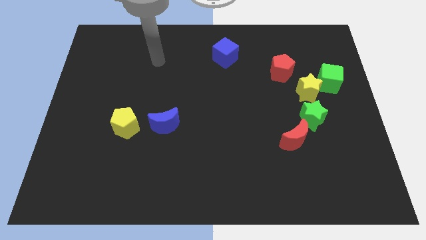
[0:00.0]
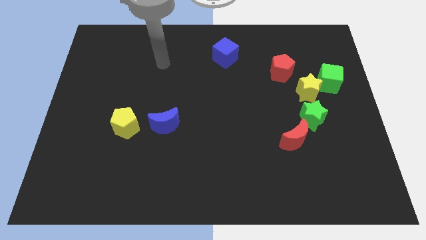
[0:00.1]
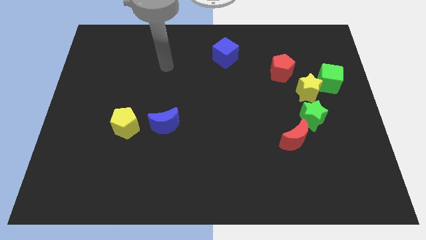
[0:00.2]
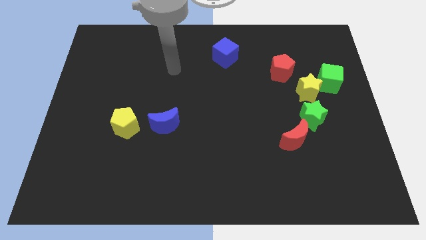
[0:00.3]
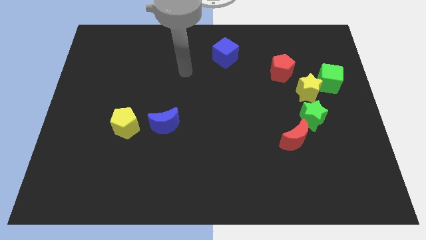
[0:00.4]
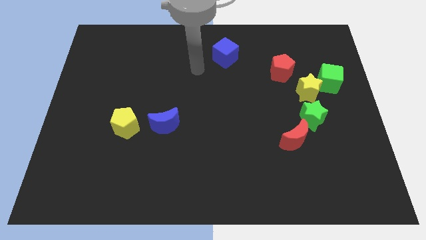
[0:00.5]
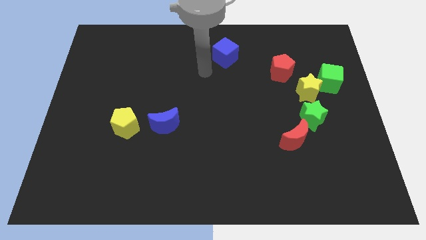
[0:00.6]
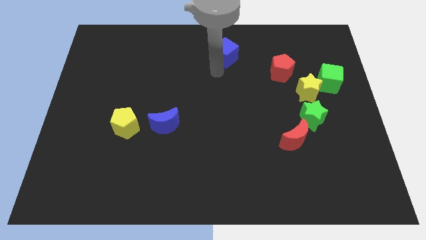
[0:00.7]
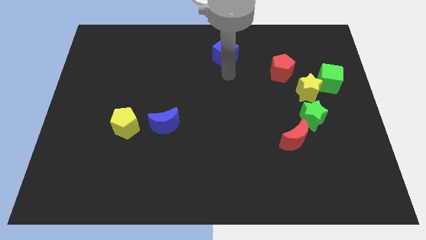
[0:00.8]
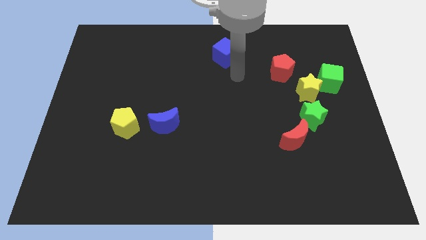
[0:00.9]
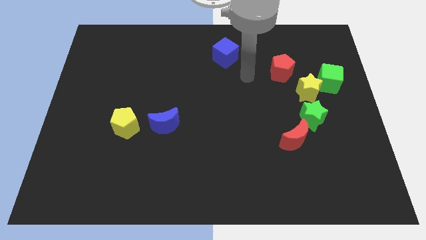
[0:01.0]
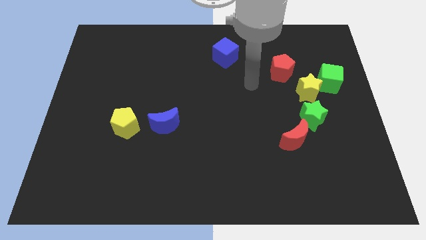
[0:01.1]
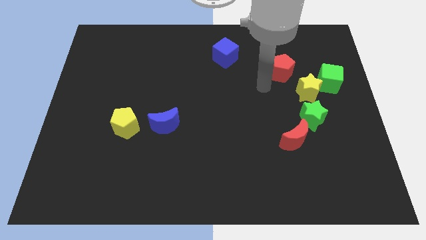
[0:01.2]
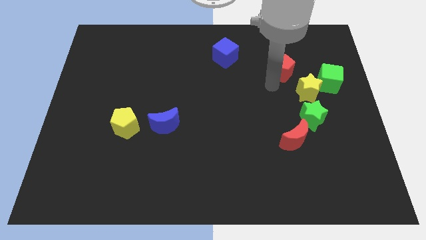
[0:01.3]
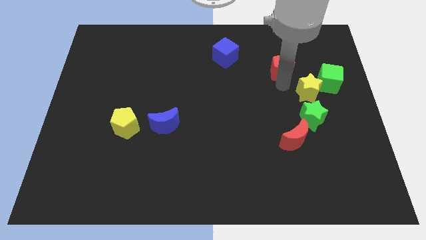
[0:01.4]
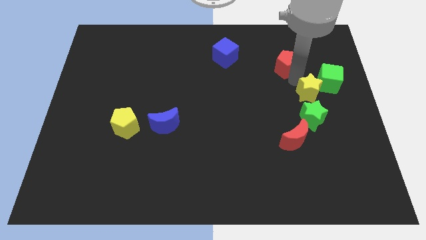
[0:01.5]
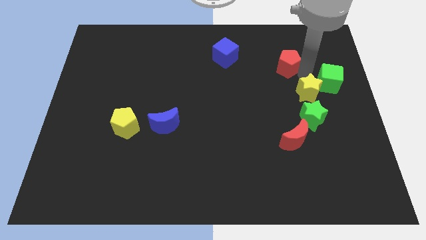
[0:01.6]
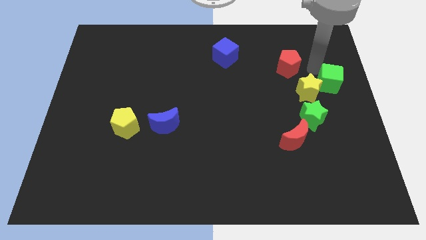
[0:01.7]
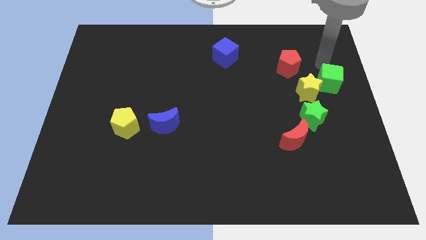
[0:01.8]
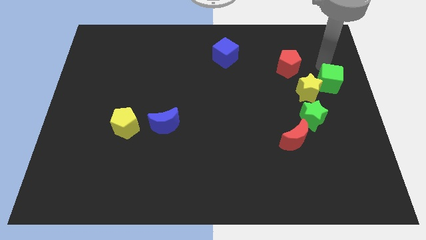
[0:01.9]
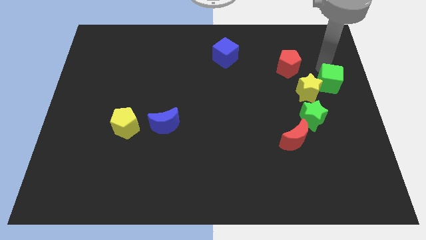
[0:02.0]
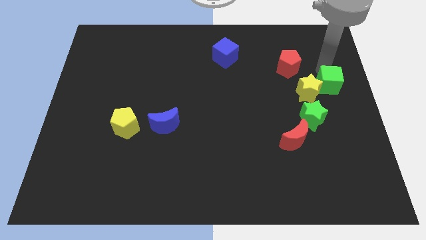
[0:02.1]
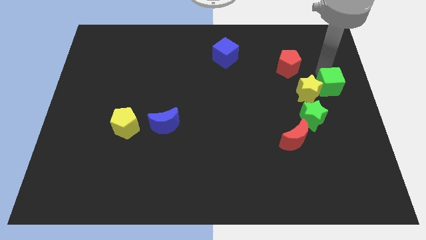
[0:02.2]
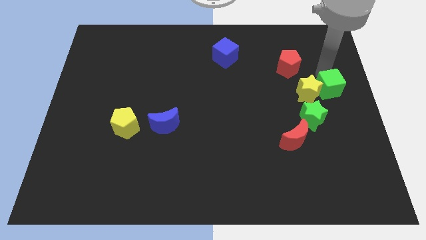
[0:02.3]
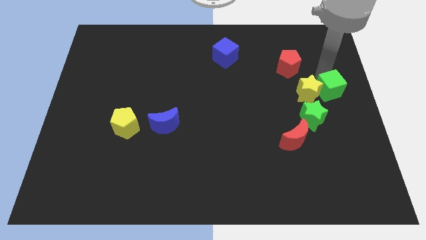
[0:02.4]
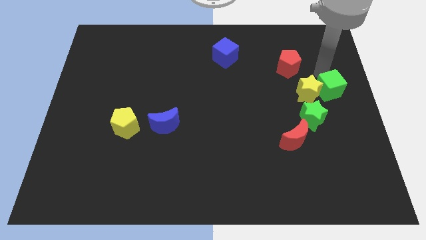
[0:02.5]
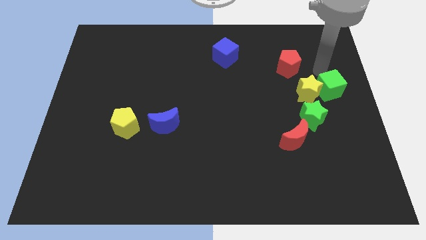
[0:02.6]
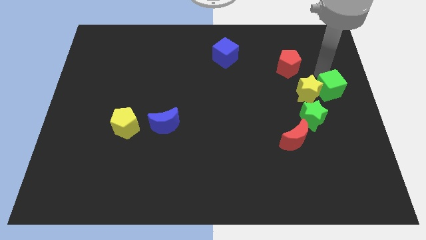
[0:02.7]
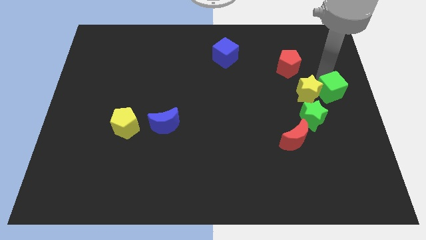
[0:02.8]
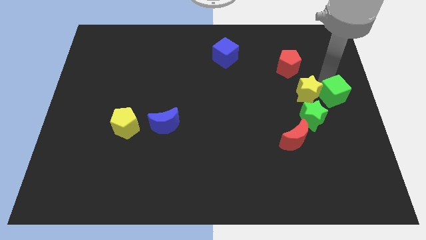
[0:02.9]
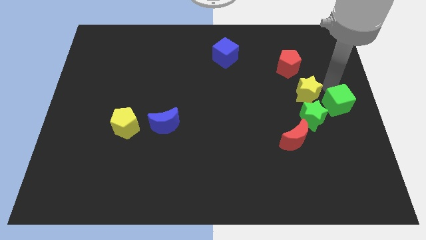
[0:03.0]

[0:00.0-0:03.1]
slightly move the green cube downwards

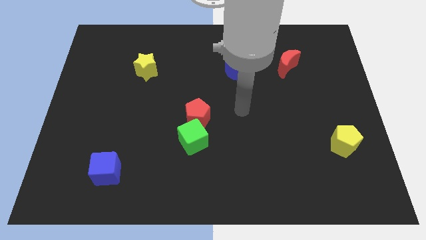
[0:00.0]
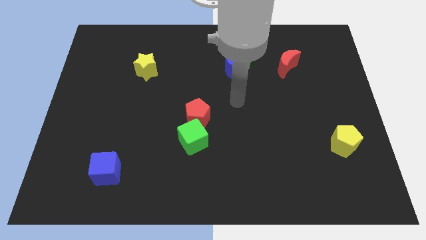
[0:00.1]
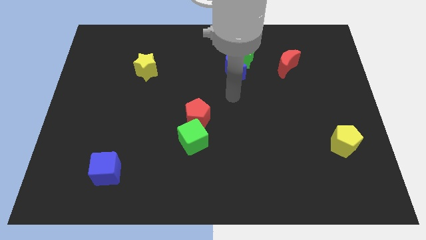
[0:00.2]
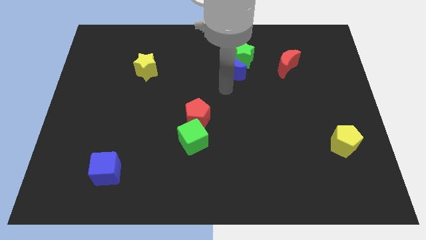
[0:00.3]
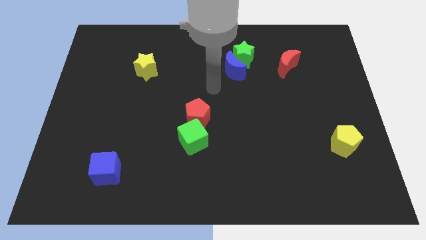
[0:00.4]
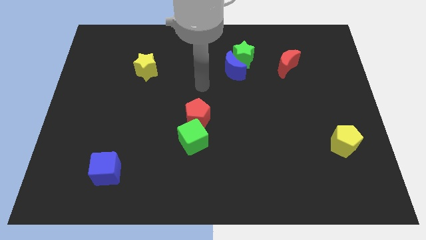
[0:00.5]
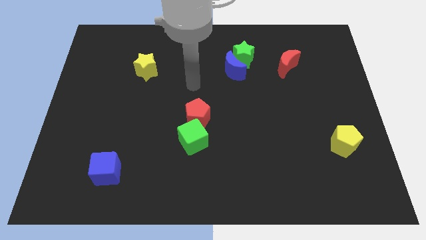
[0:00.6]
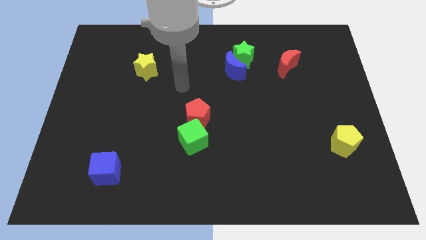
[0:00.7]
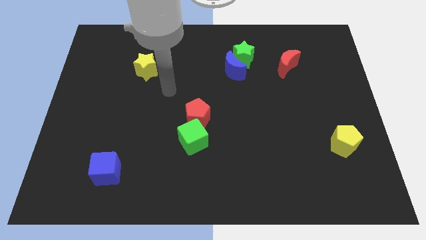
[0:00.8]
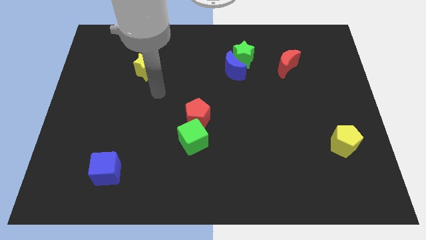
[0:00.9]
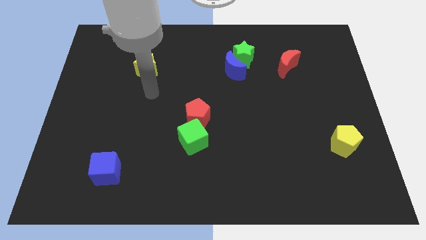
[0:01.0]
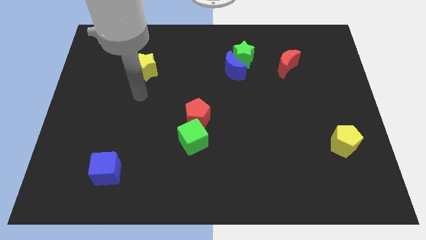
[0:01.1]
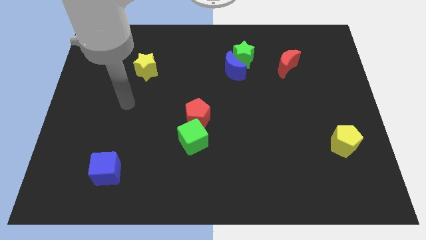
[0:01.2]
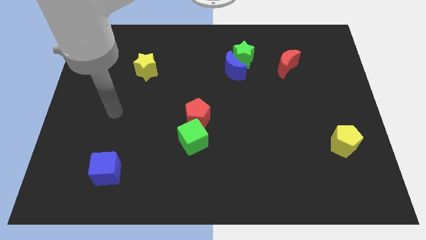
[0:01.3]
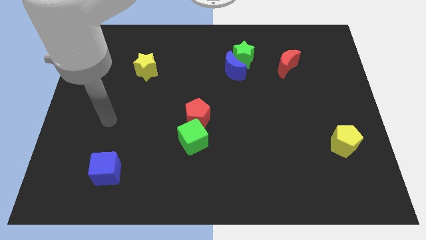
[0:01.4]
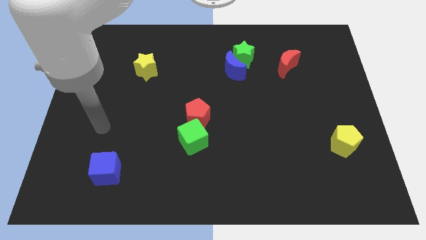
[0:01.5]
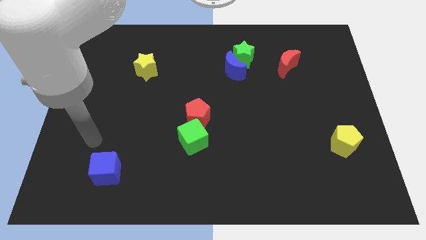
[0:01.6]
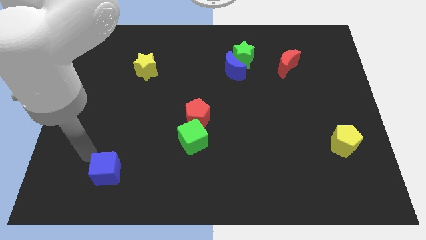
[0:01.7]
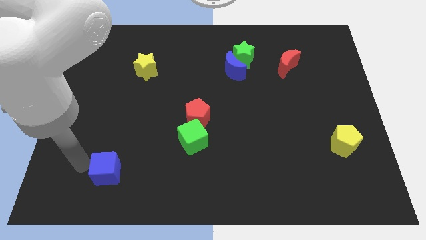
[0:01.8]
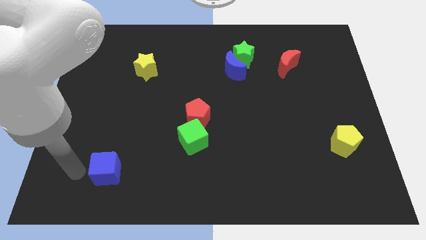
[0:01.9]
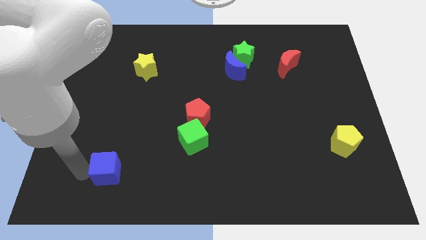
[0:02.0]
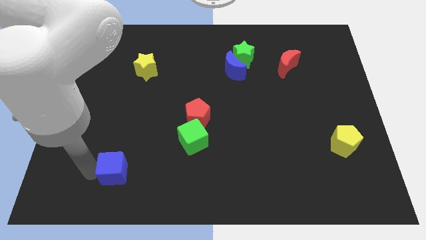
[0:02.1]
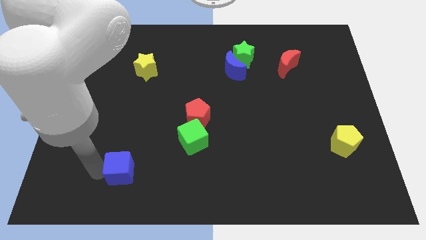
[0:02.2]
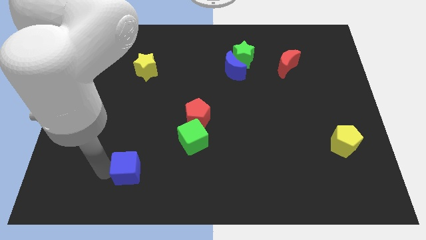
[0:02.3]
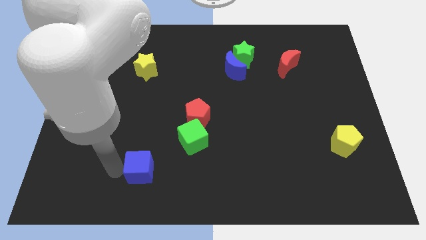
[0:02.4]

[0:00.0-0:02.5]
slide the blue cube a little to the right

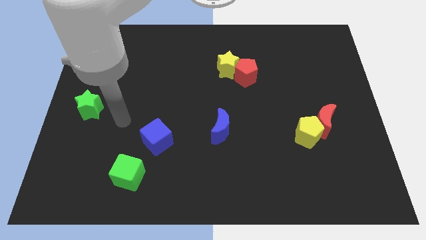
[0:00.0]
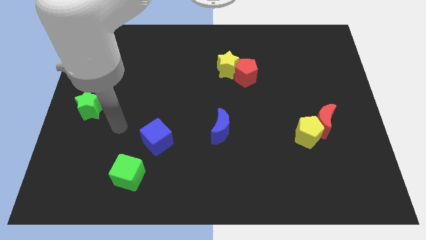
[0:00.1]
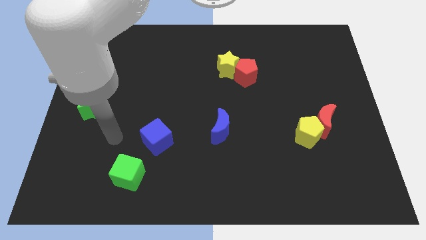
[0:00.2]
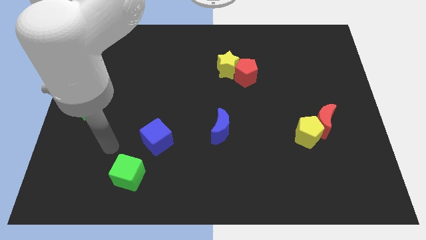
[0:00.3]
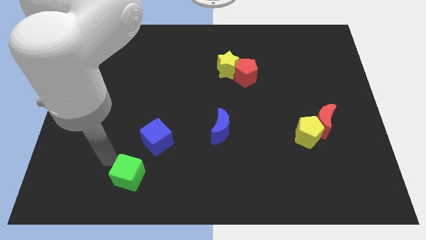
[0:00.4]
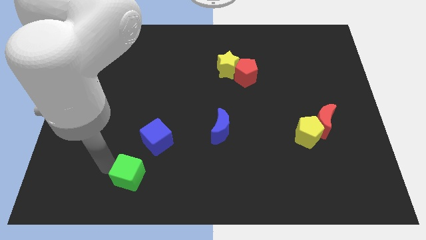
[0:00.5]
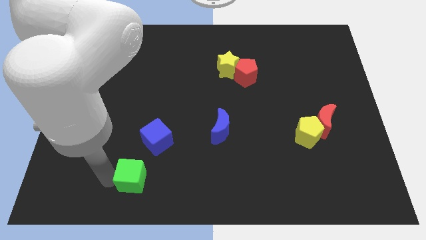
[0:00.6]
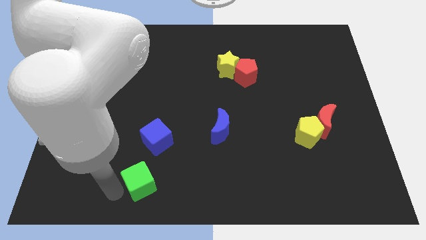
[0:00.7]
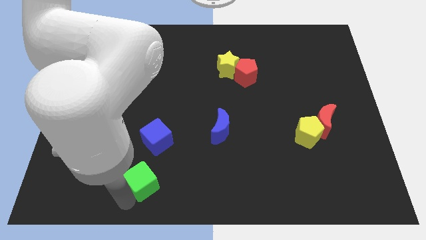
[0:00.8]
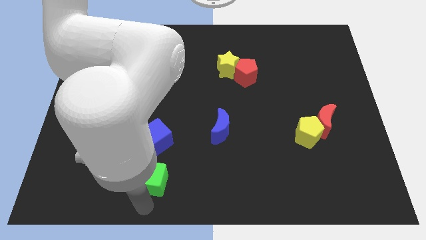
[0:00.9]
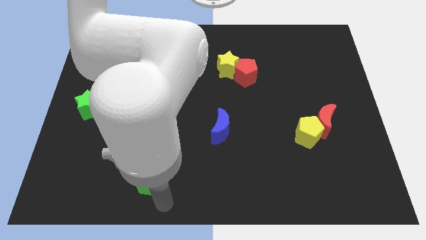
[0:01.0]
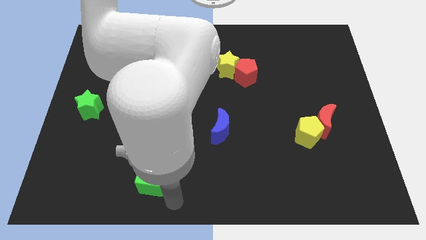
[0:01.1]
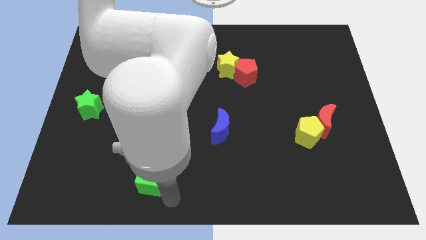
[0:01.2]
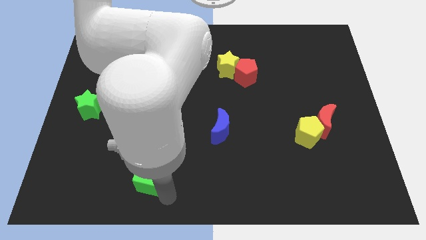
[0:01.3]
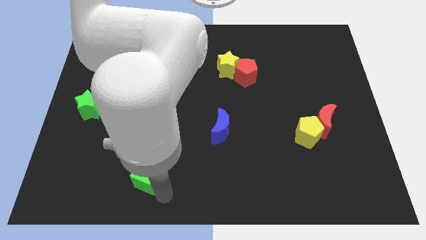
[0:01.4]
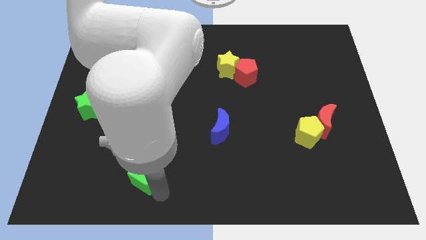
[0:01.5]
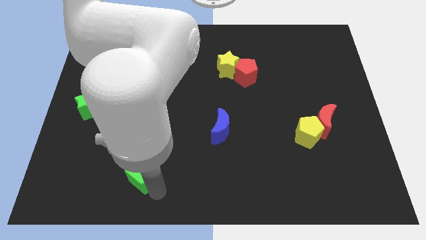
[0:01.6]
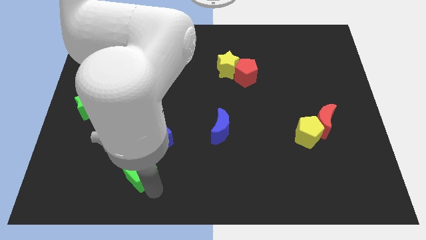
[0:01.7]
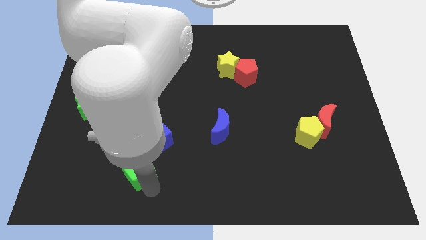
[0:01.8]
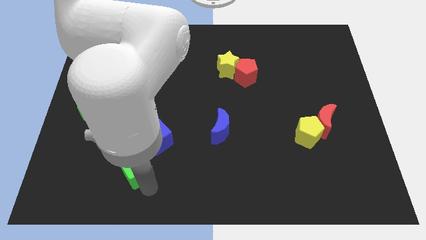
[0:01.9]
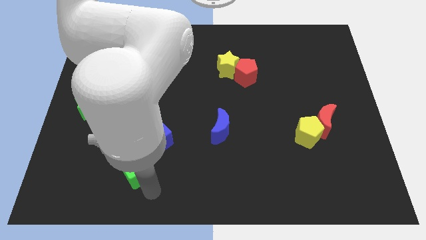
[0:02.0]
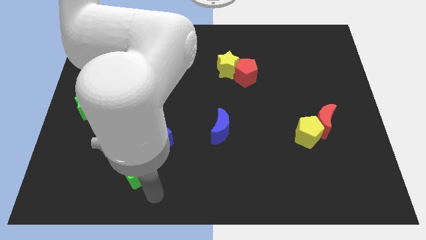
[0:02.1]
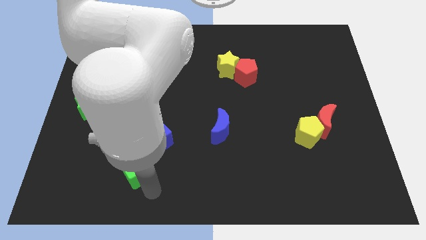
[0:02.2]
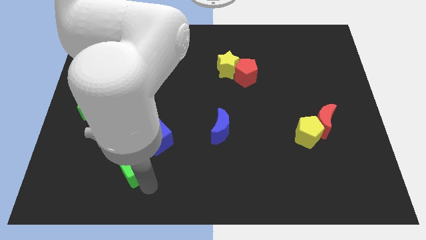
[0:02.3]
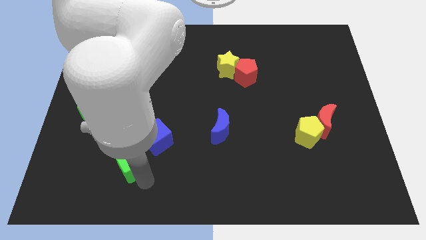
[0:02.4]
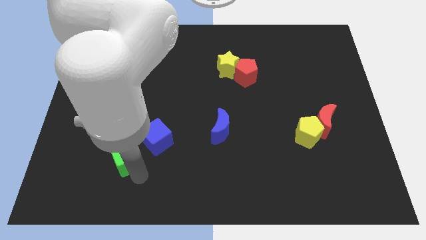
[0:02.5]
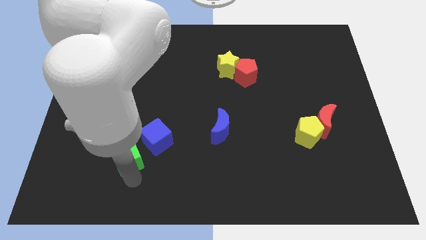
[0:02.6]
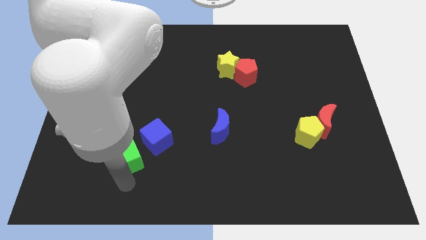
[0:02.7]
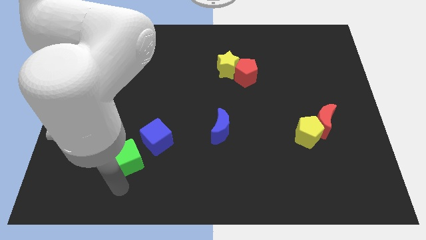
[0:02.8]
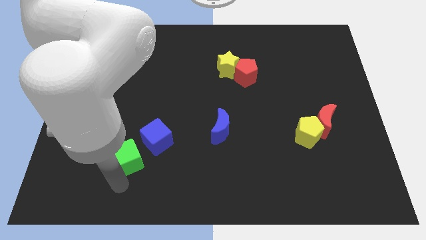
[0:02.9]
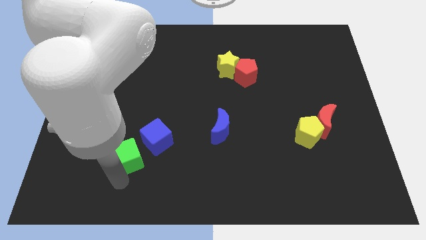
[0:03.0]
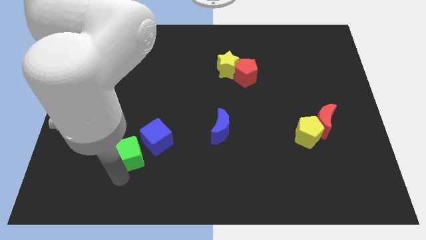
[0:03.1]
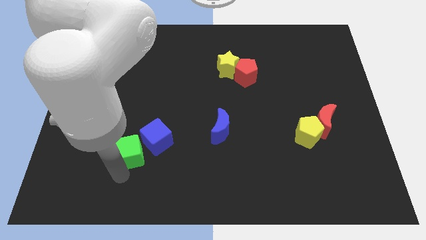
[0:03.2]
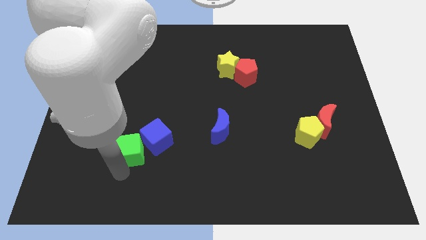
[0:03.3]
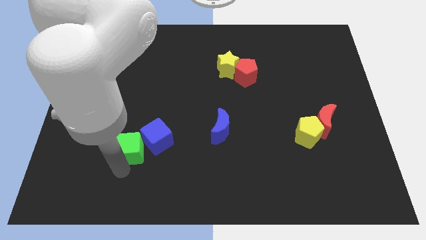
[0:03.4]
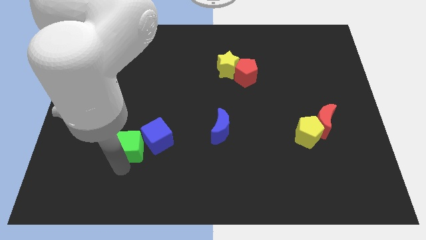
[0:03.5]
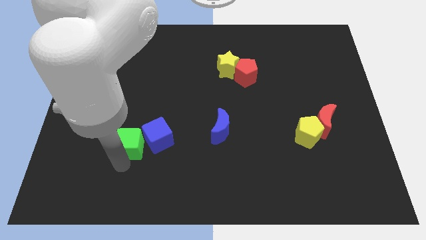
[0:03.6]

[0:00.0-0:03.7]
move the green cube somewhat up
